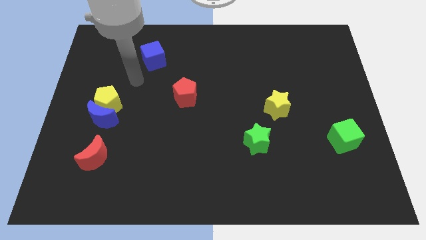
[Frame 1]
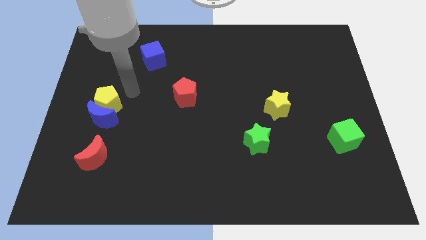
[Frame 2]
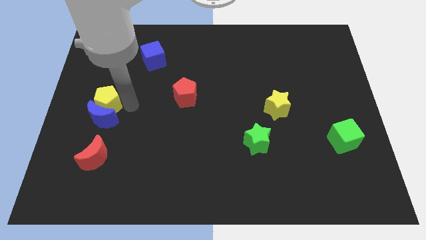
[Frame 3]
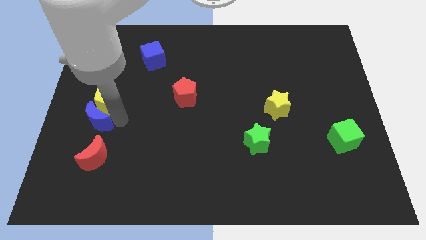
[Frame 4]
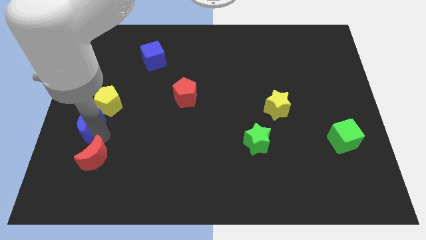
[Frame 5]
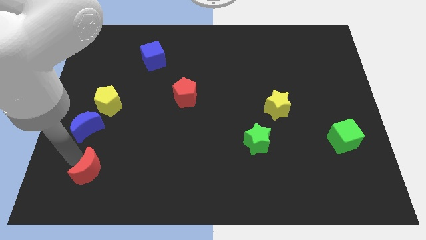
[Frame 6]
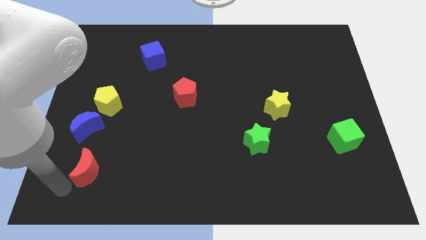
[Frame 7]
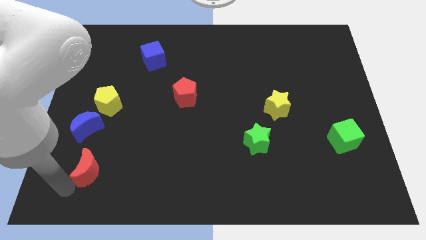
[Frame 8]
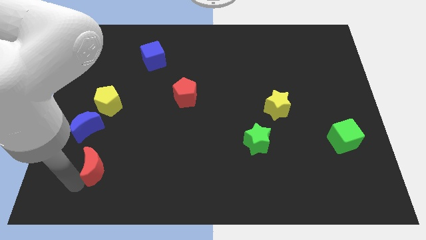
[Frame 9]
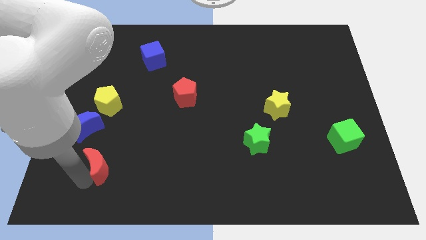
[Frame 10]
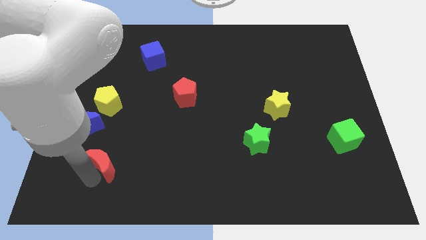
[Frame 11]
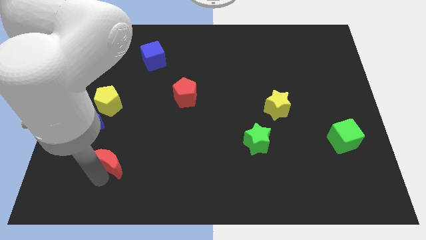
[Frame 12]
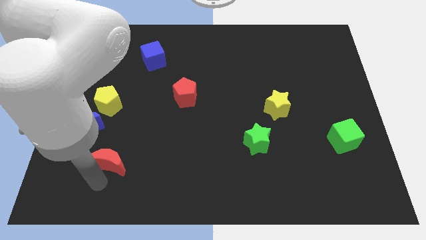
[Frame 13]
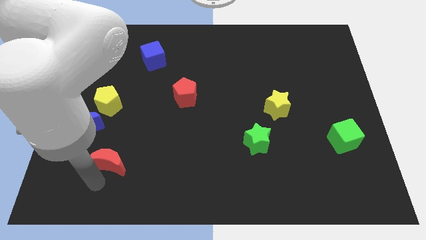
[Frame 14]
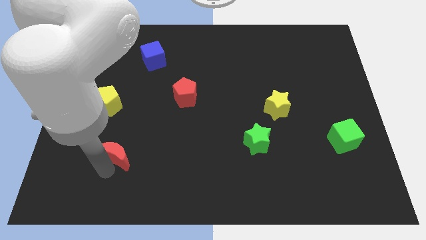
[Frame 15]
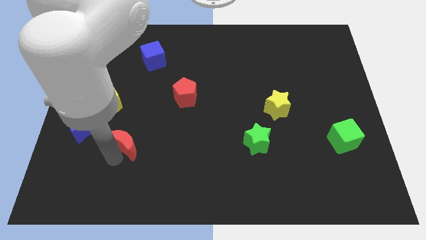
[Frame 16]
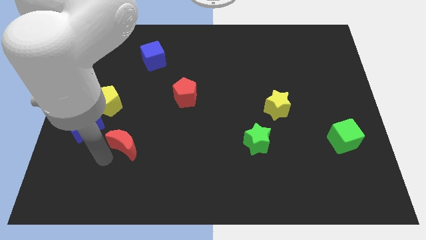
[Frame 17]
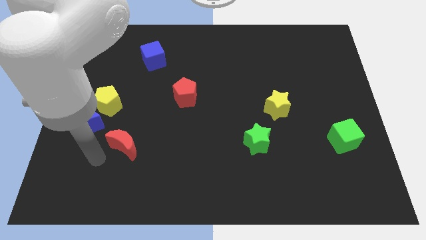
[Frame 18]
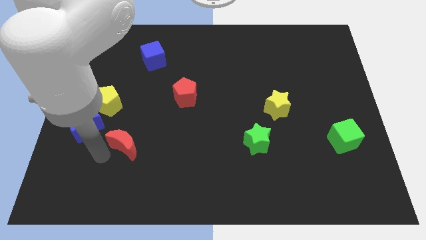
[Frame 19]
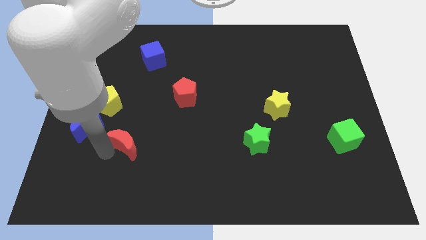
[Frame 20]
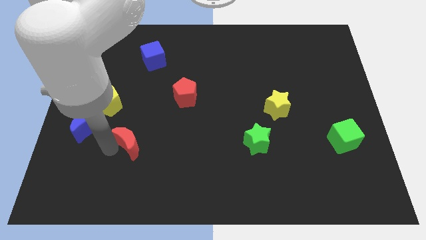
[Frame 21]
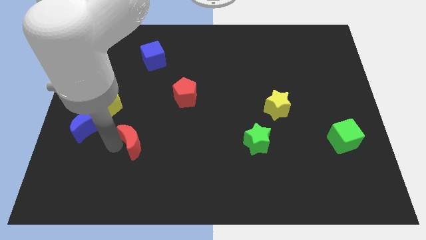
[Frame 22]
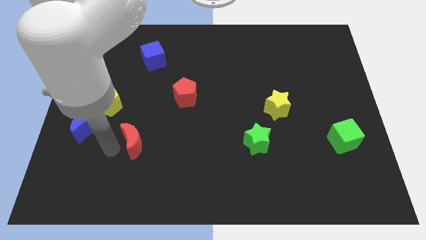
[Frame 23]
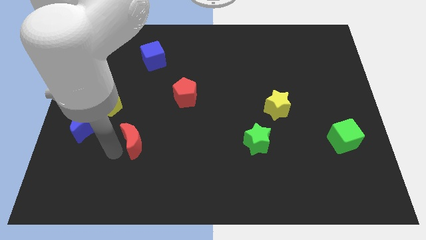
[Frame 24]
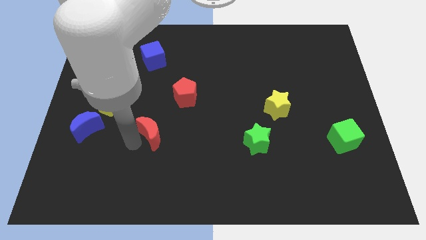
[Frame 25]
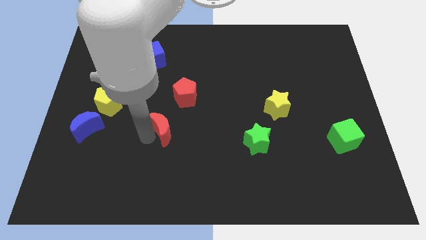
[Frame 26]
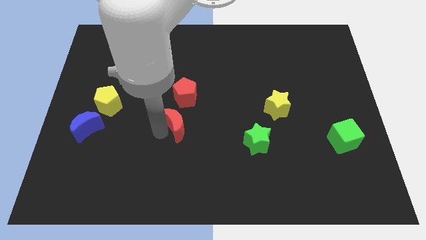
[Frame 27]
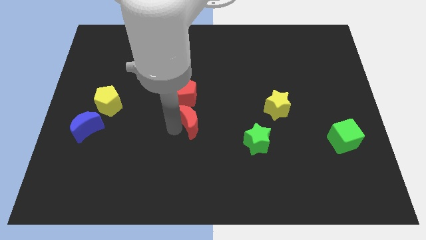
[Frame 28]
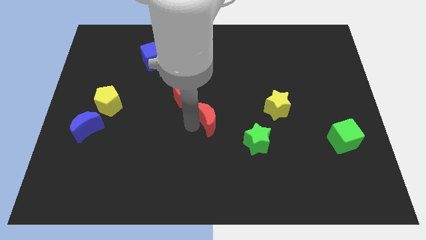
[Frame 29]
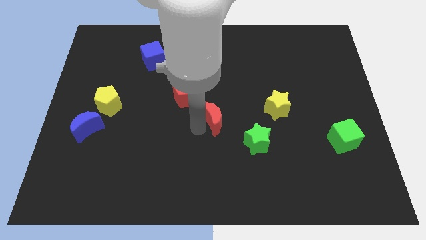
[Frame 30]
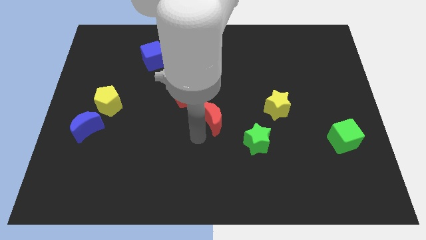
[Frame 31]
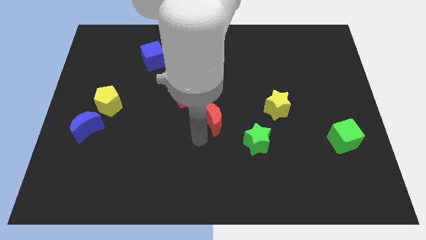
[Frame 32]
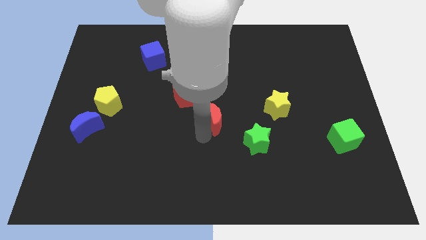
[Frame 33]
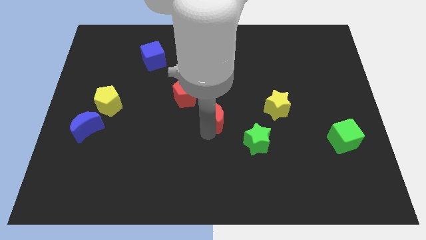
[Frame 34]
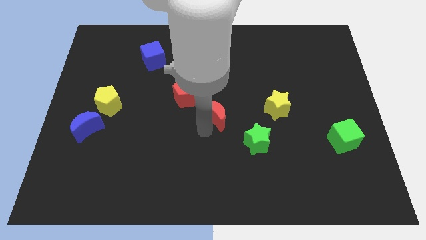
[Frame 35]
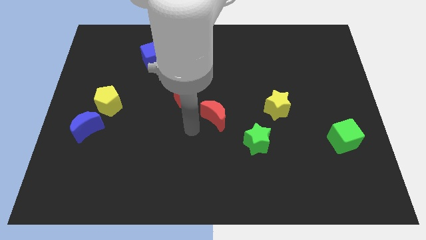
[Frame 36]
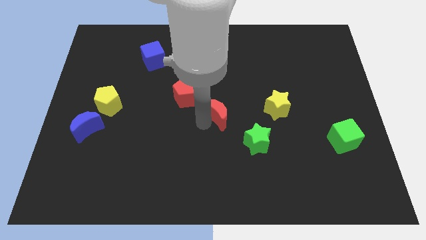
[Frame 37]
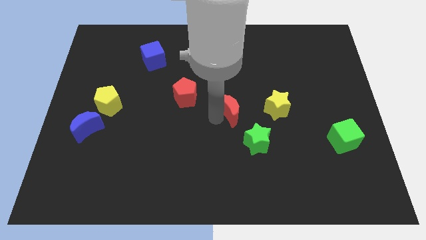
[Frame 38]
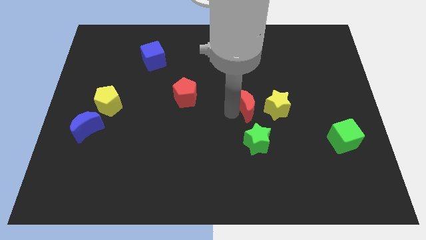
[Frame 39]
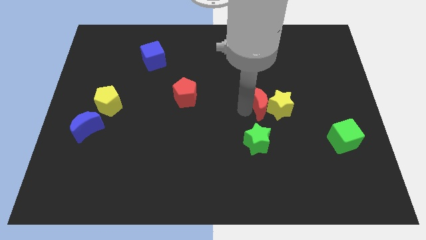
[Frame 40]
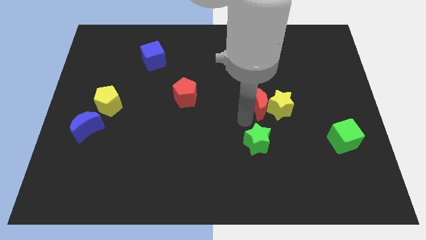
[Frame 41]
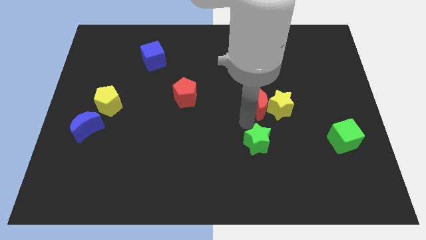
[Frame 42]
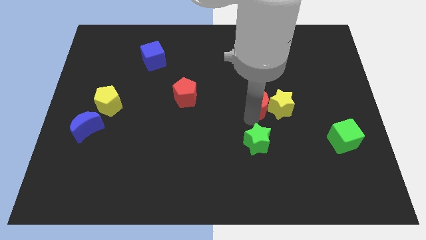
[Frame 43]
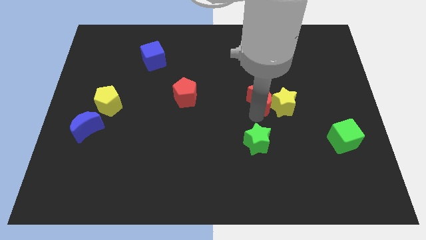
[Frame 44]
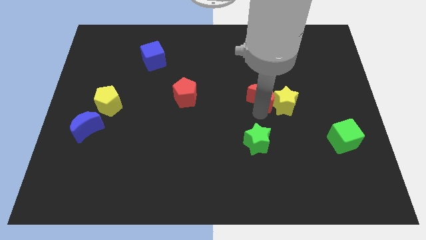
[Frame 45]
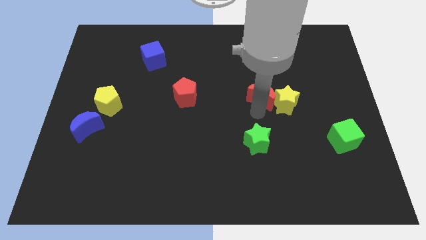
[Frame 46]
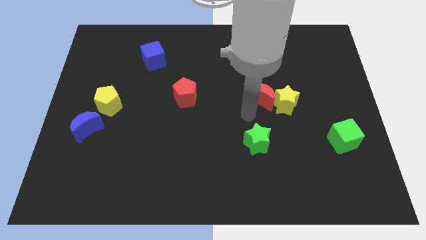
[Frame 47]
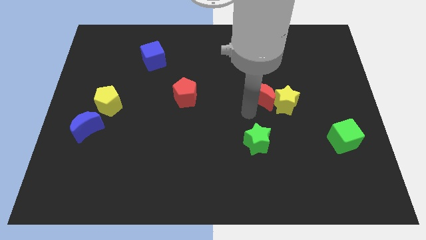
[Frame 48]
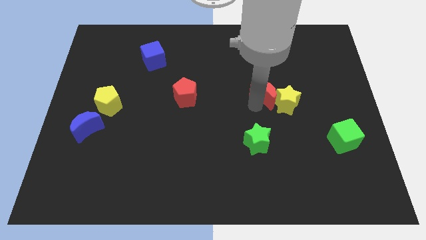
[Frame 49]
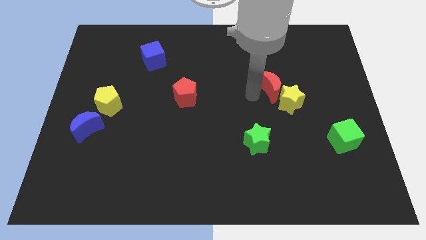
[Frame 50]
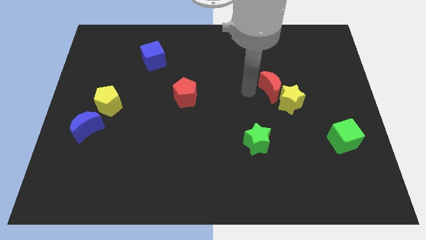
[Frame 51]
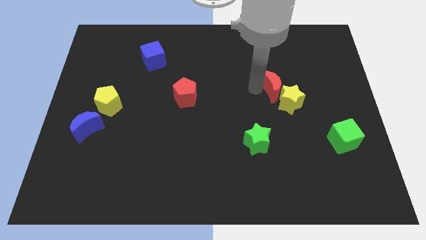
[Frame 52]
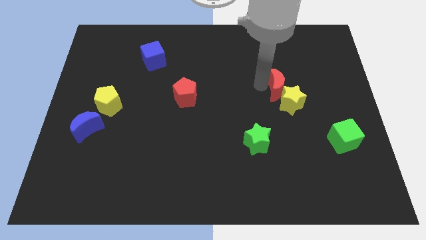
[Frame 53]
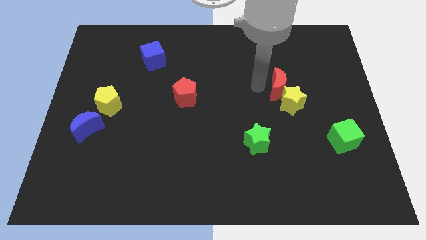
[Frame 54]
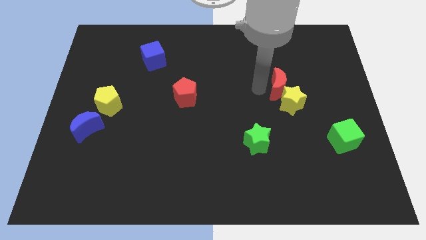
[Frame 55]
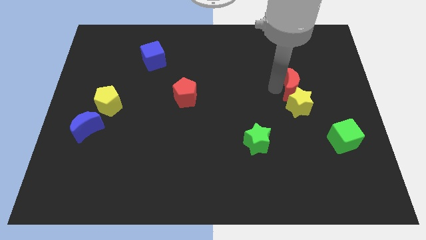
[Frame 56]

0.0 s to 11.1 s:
put the red moon to the top right side of the yellow star
